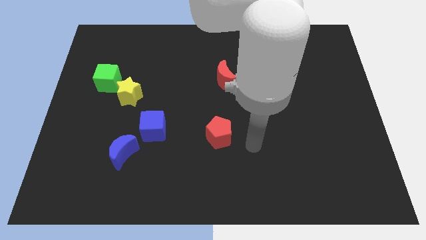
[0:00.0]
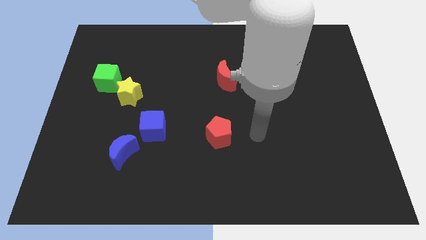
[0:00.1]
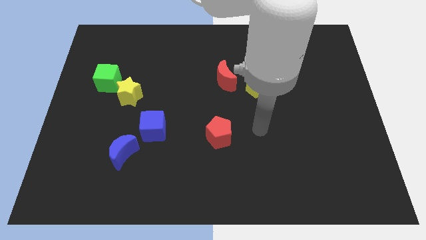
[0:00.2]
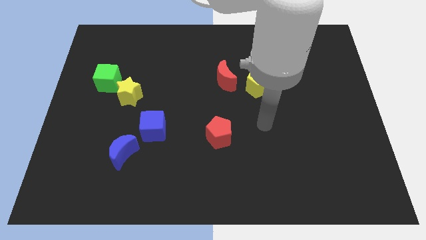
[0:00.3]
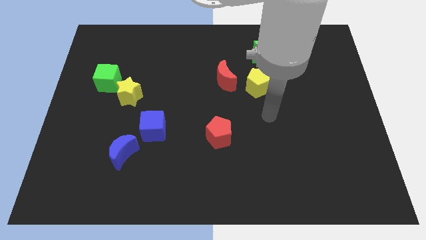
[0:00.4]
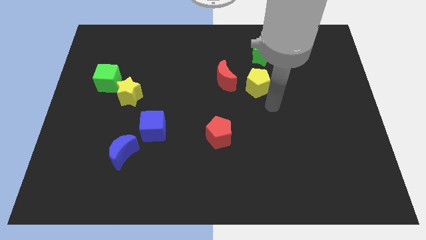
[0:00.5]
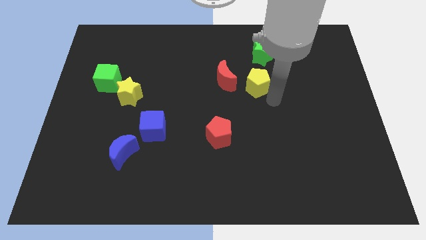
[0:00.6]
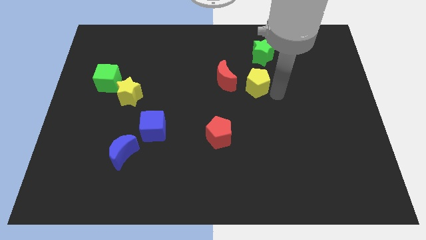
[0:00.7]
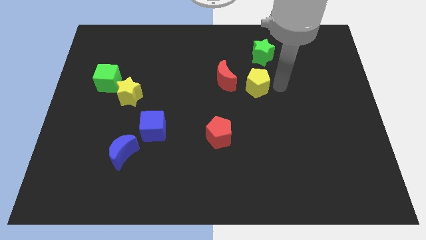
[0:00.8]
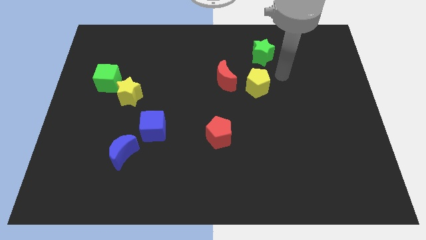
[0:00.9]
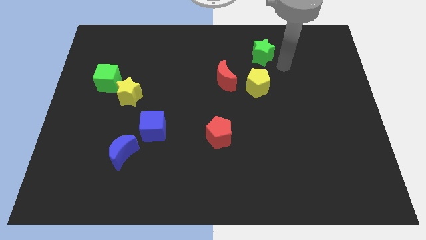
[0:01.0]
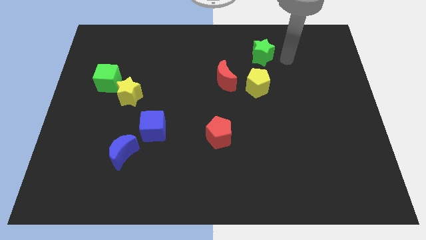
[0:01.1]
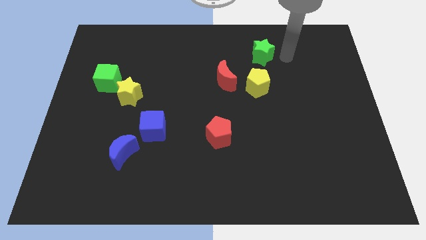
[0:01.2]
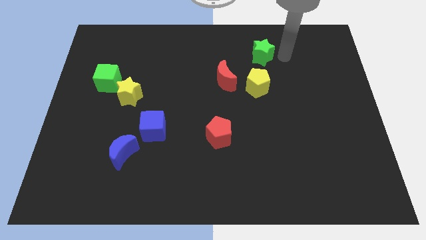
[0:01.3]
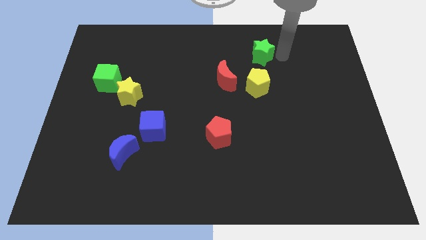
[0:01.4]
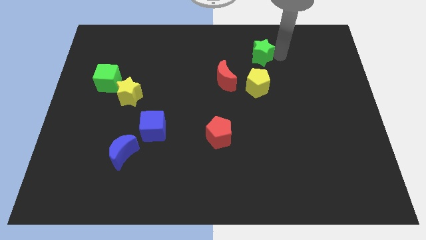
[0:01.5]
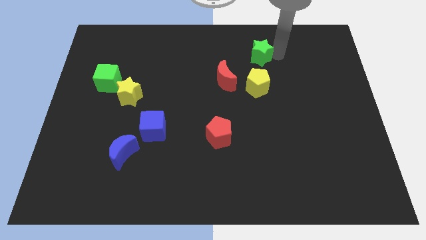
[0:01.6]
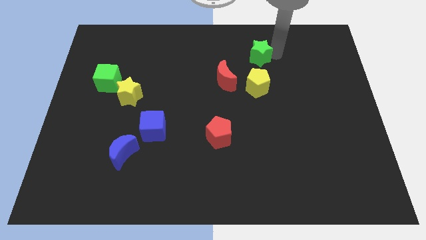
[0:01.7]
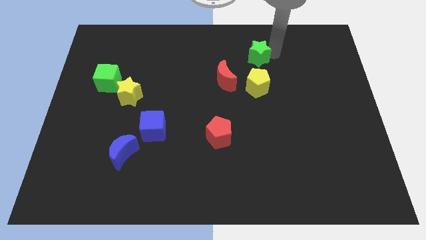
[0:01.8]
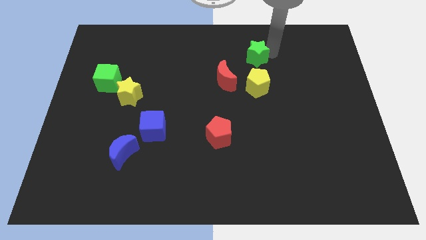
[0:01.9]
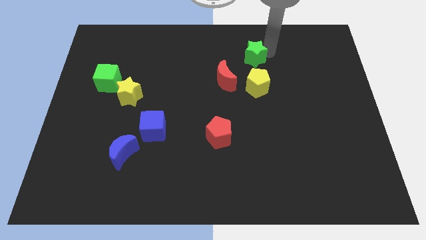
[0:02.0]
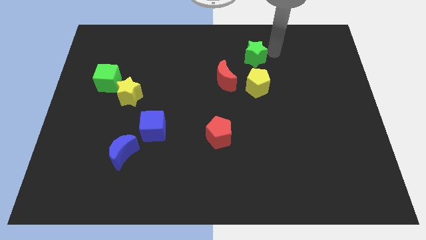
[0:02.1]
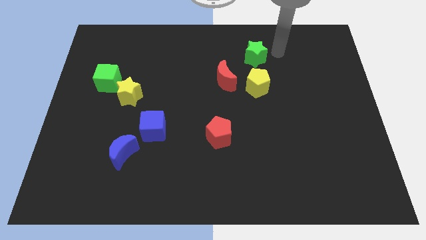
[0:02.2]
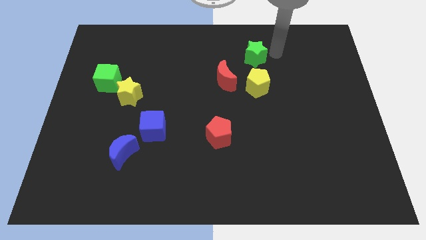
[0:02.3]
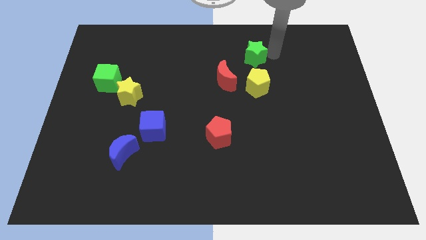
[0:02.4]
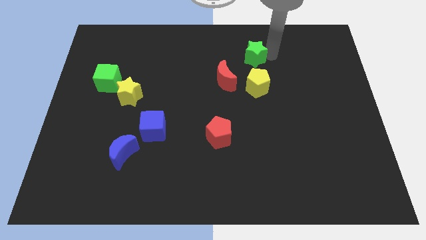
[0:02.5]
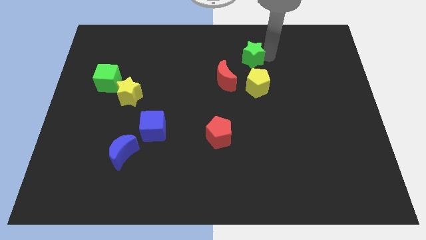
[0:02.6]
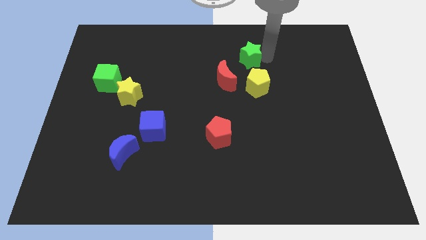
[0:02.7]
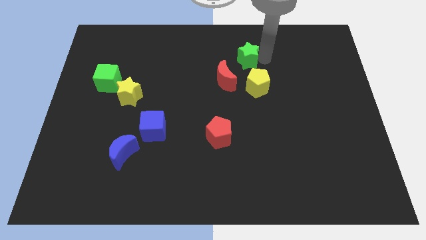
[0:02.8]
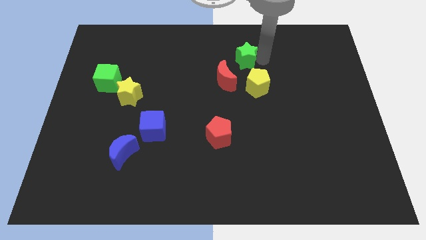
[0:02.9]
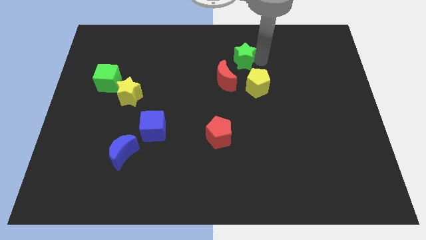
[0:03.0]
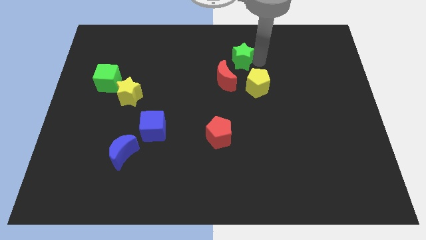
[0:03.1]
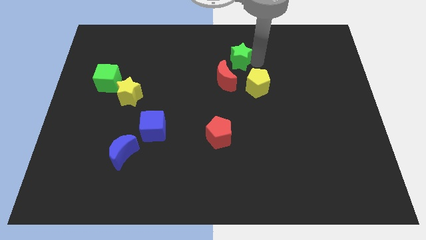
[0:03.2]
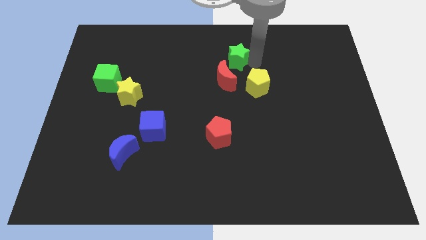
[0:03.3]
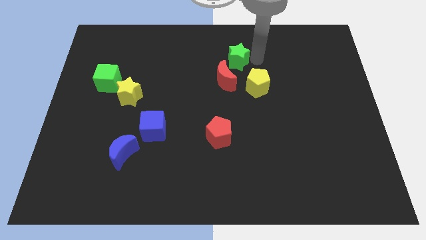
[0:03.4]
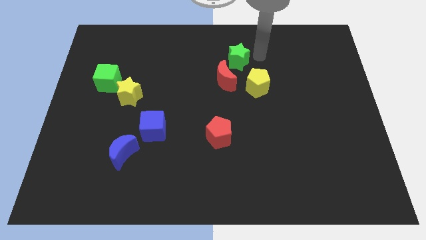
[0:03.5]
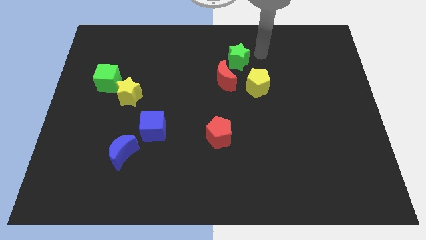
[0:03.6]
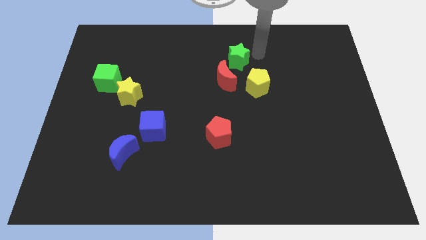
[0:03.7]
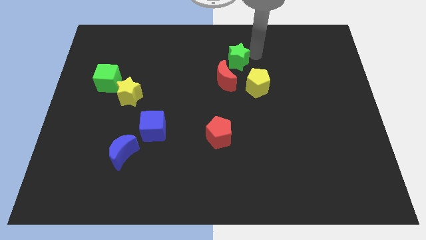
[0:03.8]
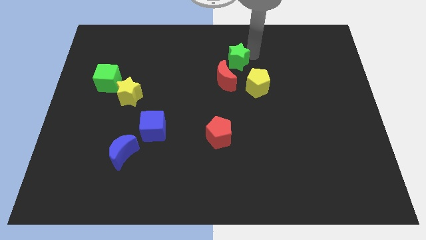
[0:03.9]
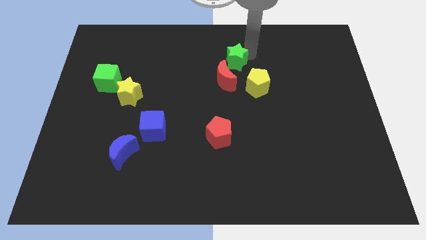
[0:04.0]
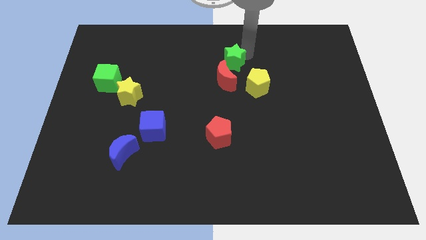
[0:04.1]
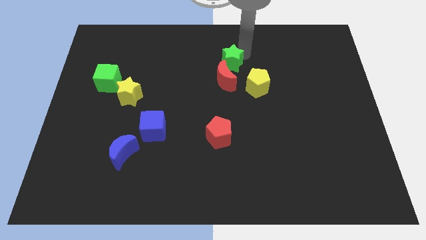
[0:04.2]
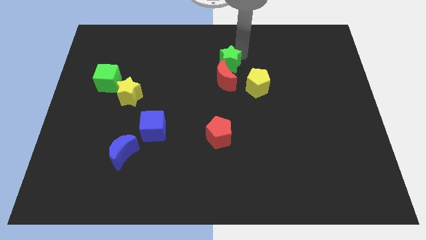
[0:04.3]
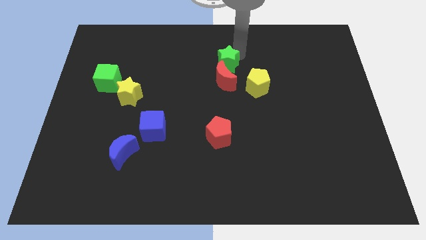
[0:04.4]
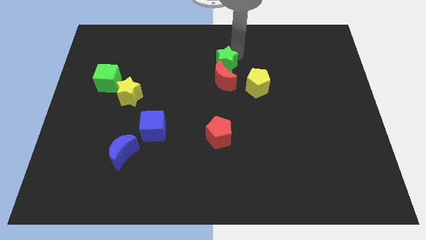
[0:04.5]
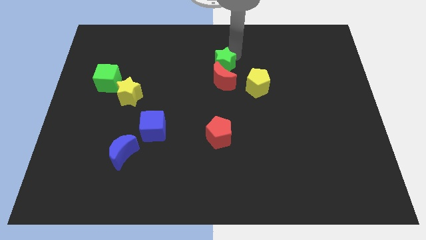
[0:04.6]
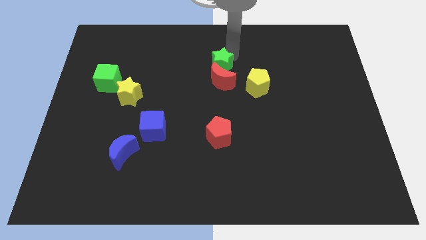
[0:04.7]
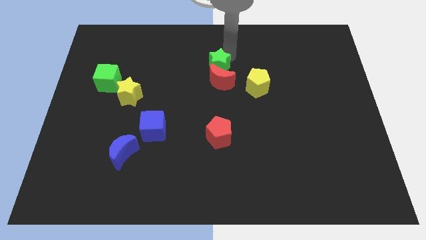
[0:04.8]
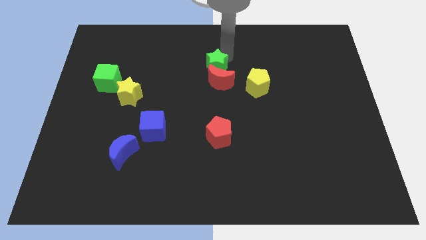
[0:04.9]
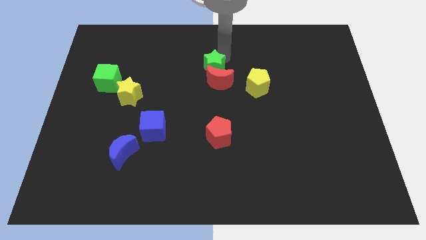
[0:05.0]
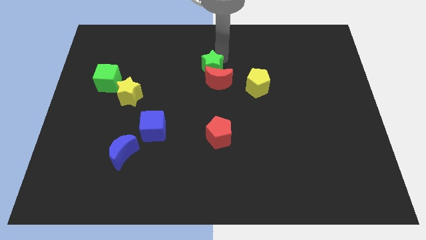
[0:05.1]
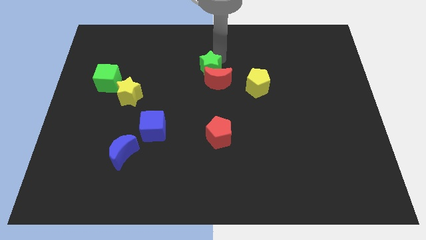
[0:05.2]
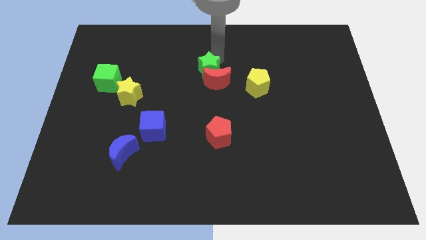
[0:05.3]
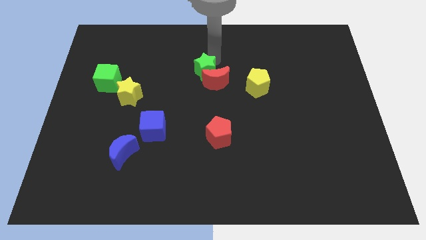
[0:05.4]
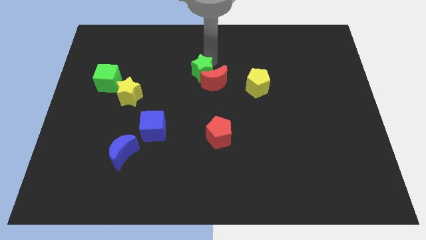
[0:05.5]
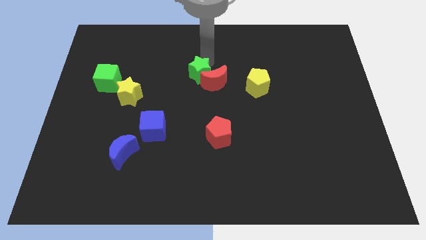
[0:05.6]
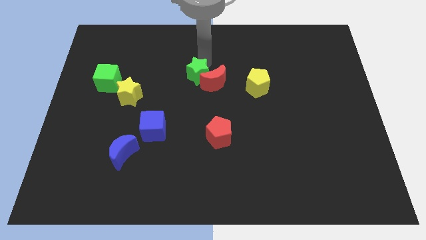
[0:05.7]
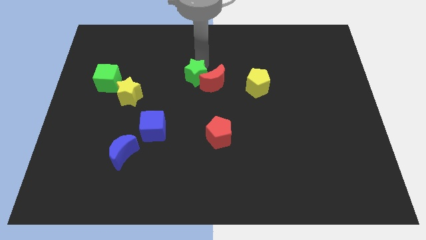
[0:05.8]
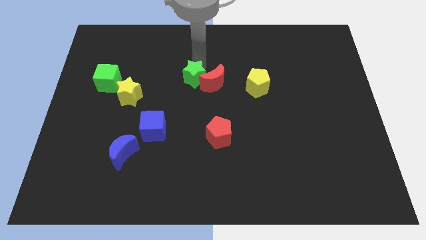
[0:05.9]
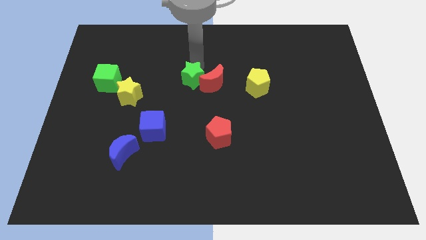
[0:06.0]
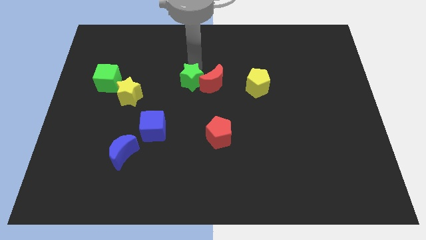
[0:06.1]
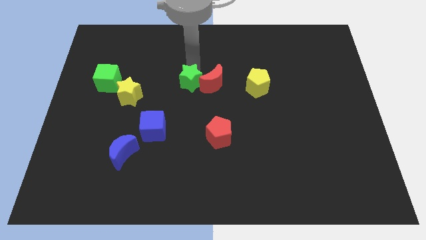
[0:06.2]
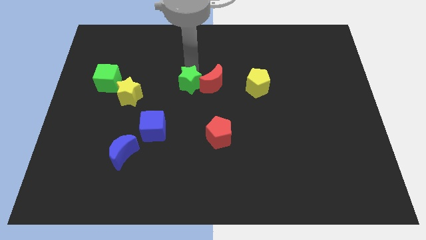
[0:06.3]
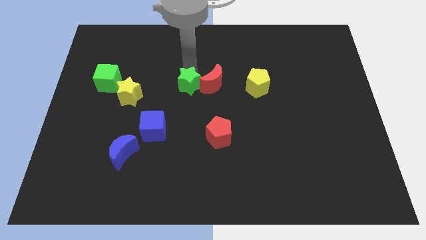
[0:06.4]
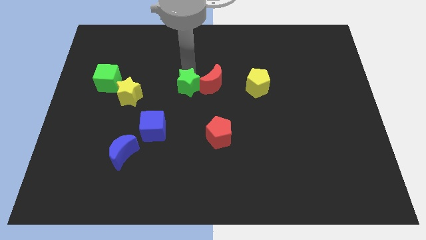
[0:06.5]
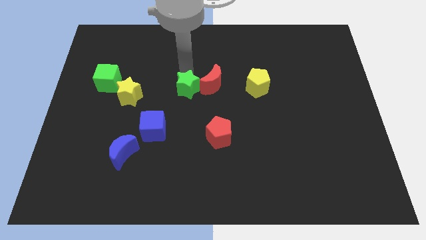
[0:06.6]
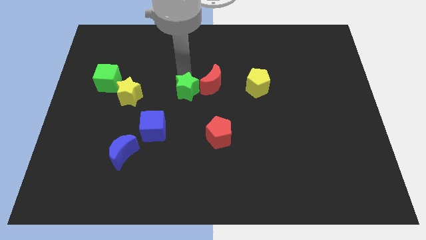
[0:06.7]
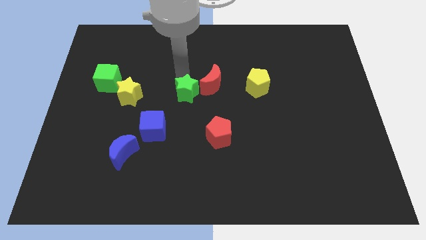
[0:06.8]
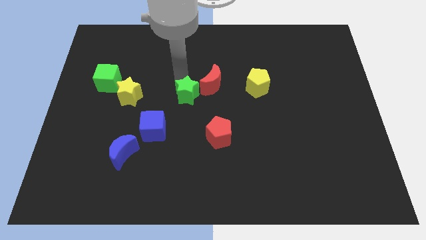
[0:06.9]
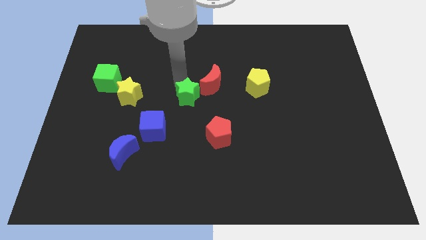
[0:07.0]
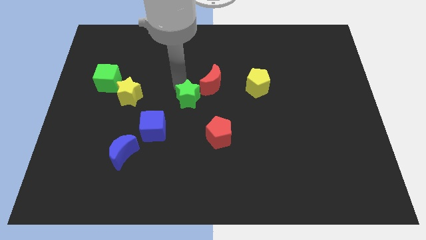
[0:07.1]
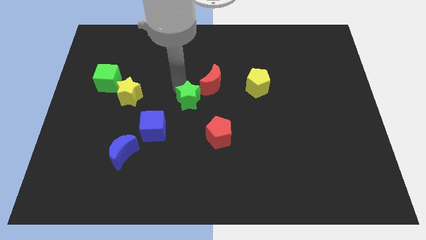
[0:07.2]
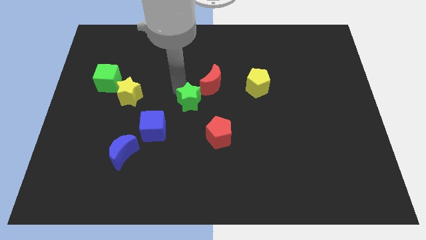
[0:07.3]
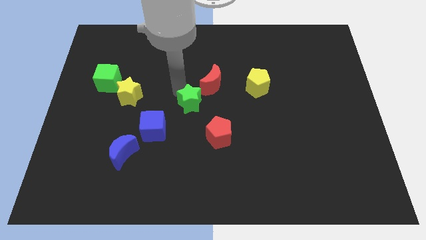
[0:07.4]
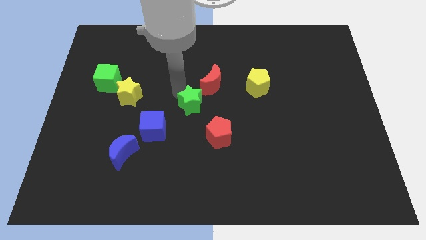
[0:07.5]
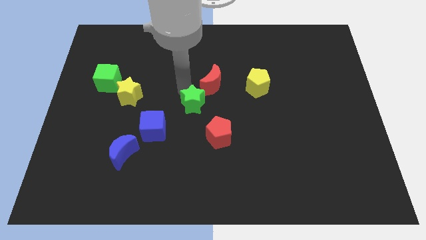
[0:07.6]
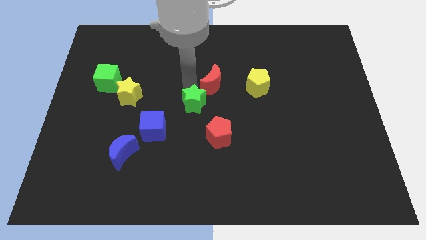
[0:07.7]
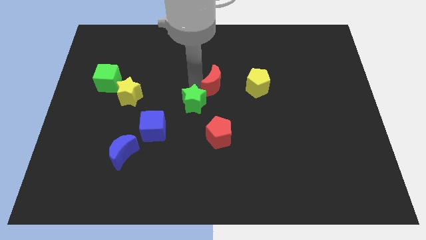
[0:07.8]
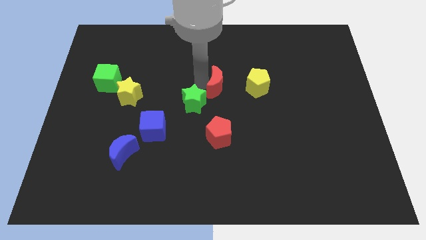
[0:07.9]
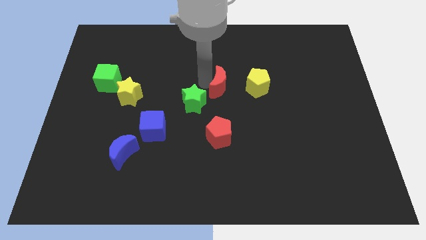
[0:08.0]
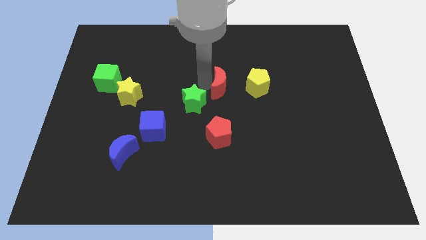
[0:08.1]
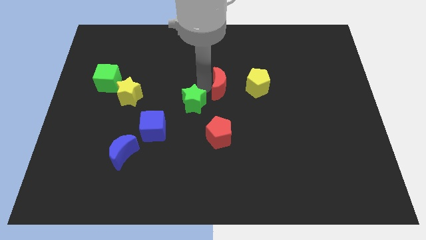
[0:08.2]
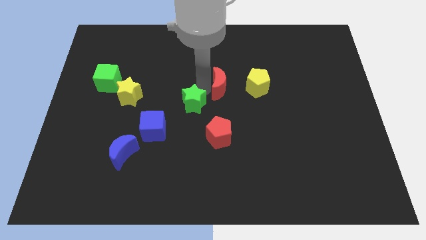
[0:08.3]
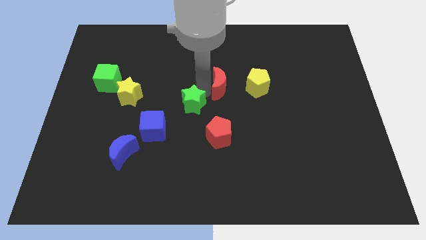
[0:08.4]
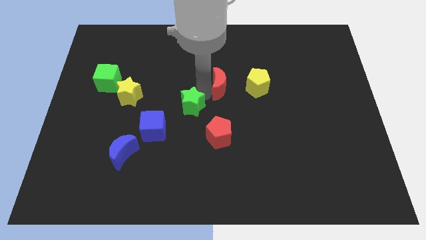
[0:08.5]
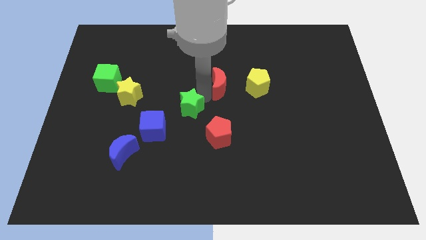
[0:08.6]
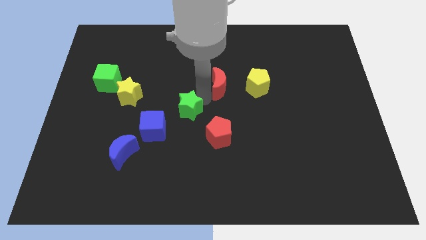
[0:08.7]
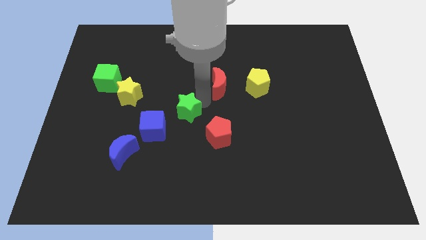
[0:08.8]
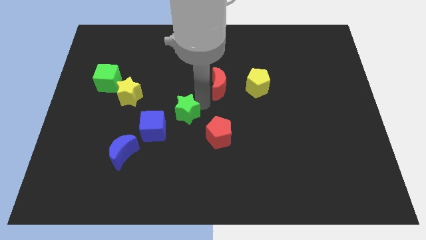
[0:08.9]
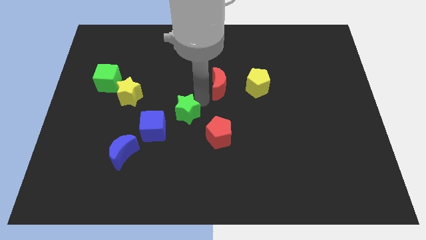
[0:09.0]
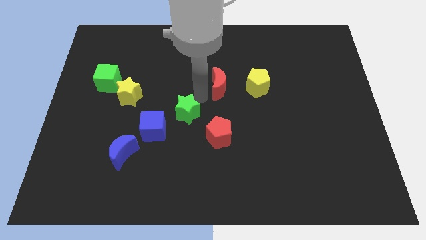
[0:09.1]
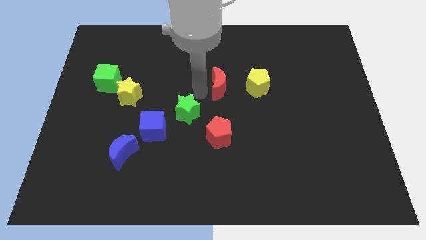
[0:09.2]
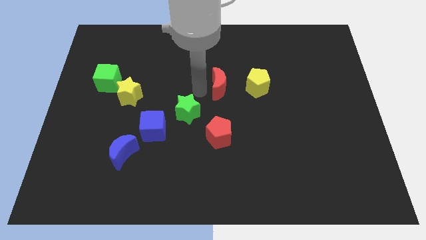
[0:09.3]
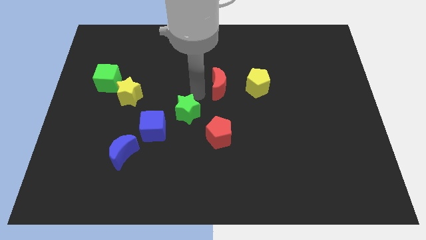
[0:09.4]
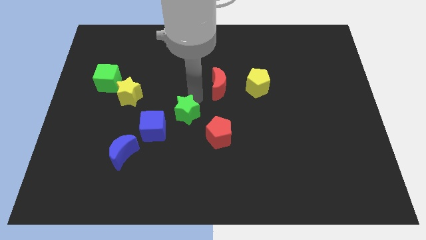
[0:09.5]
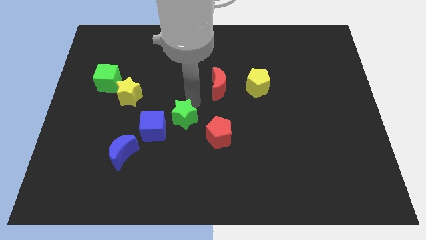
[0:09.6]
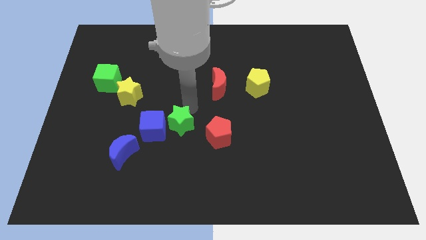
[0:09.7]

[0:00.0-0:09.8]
slide the green star left of the red pentagon
